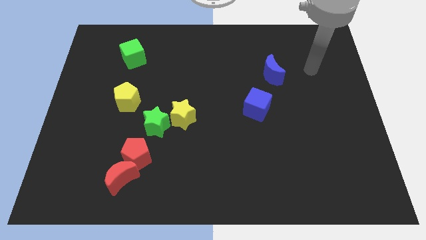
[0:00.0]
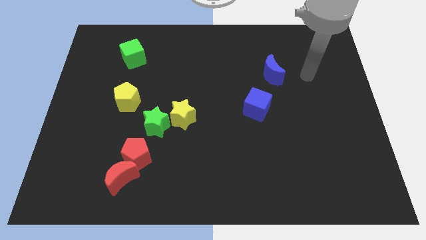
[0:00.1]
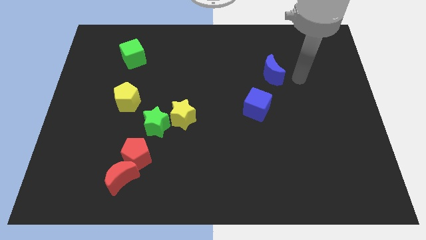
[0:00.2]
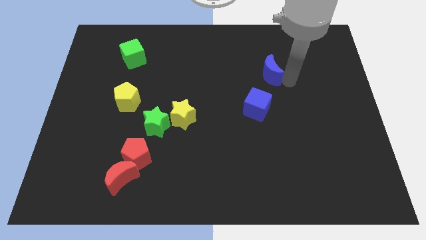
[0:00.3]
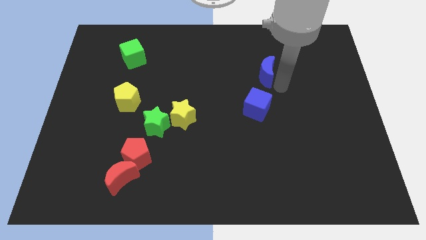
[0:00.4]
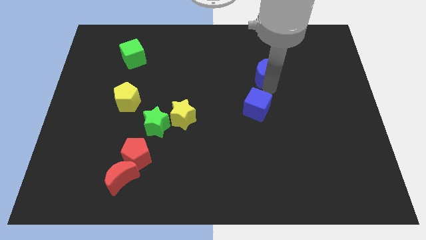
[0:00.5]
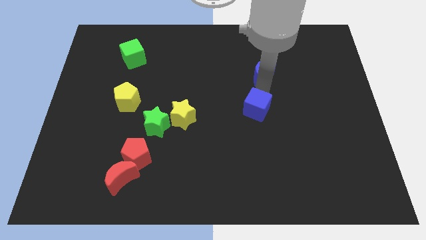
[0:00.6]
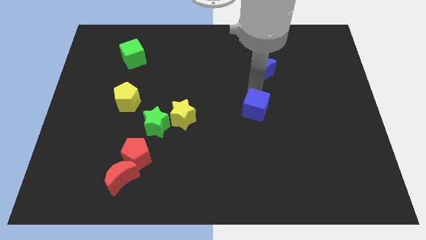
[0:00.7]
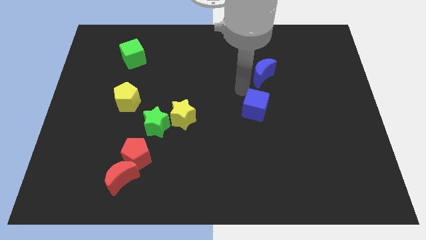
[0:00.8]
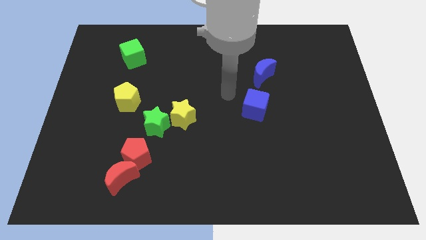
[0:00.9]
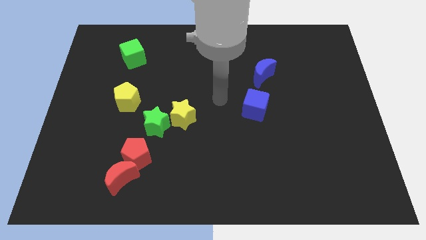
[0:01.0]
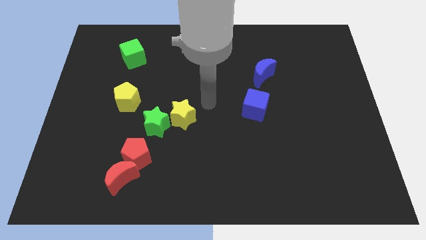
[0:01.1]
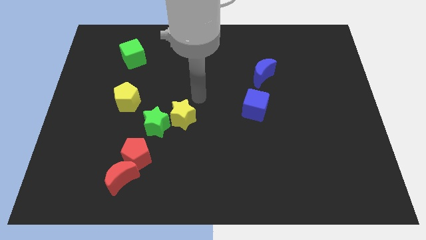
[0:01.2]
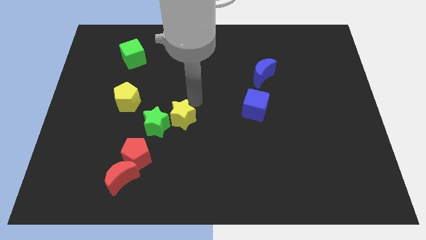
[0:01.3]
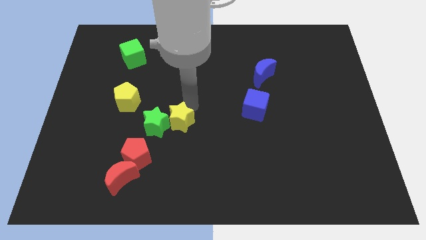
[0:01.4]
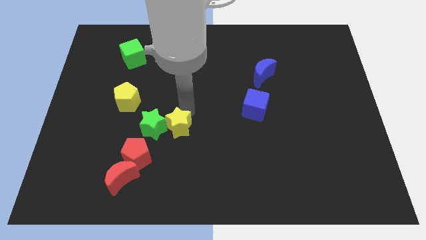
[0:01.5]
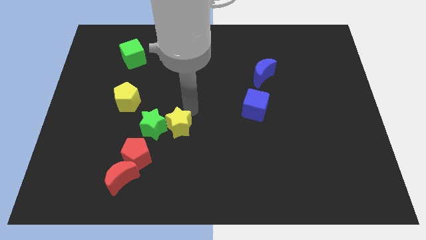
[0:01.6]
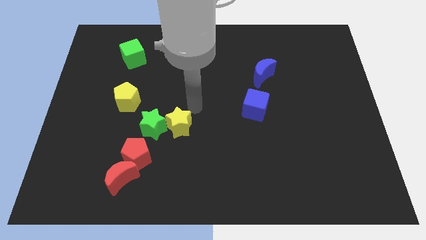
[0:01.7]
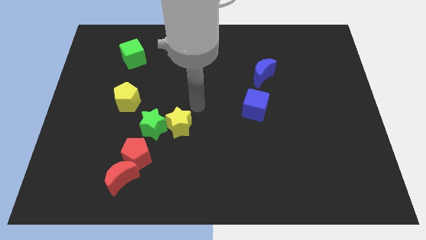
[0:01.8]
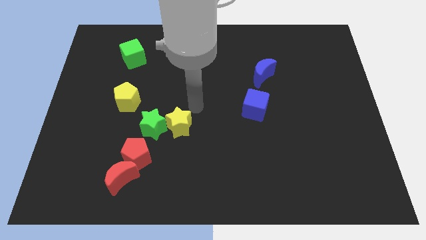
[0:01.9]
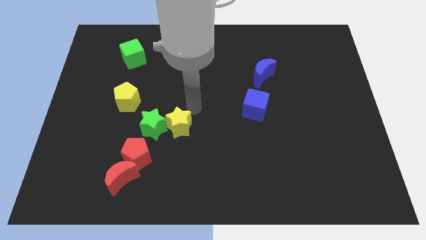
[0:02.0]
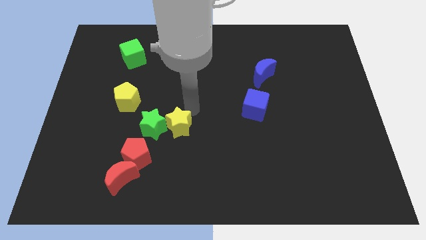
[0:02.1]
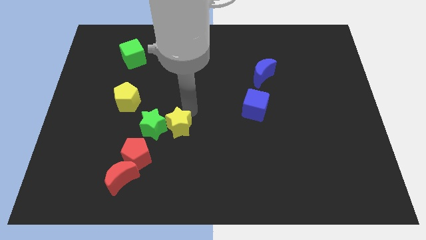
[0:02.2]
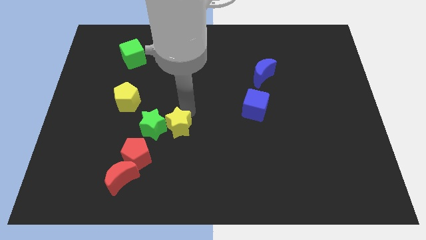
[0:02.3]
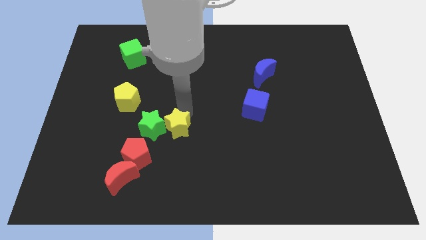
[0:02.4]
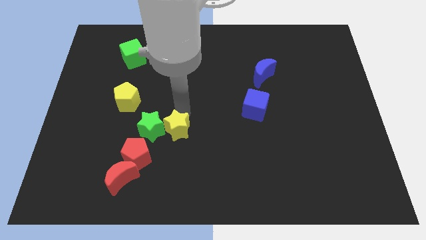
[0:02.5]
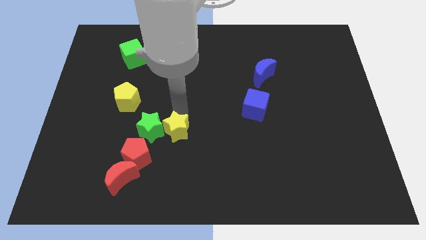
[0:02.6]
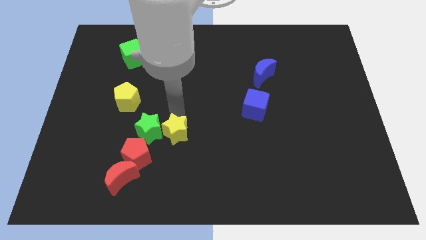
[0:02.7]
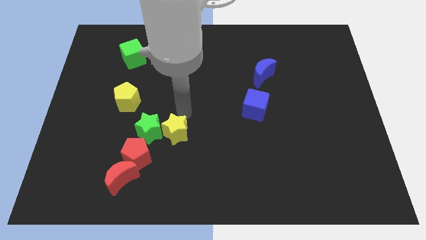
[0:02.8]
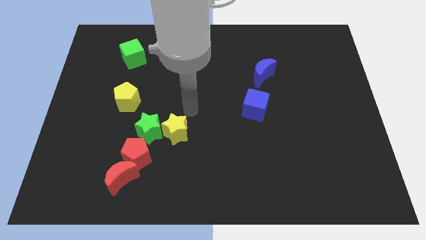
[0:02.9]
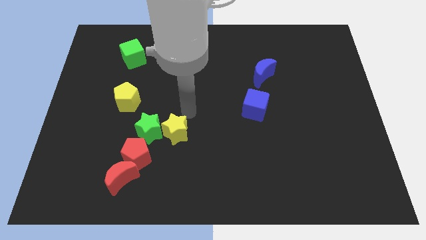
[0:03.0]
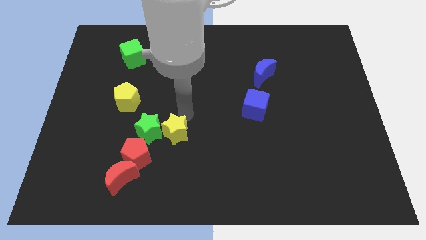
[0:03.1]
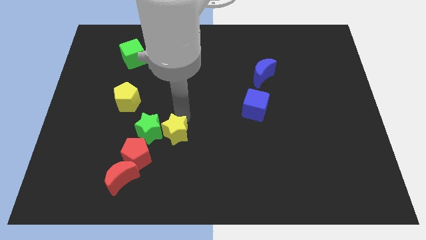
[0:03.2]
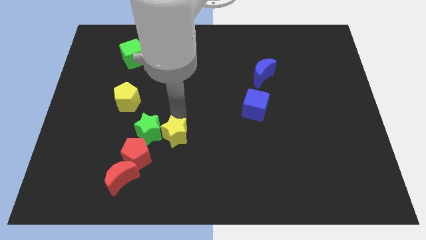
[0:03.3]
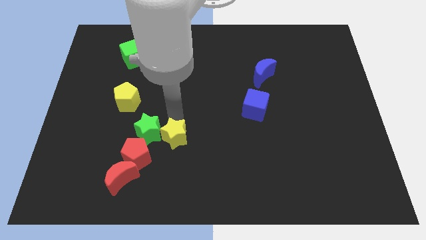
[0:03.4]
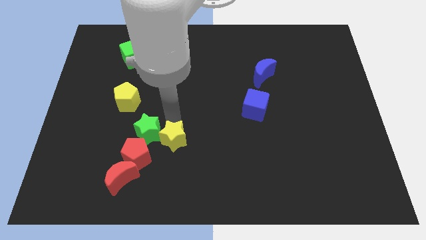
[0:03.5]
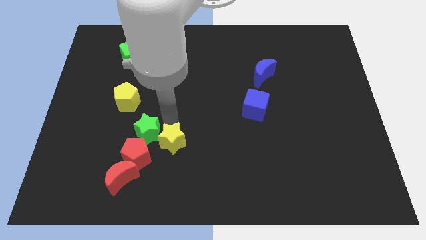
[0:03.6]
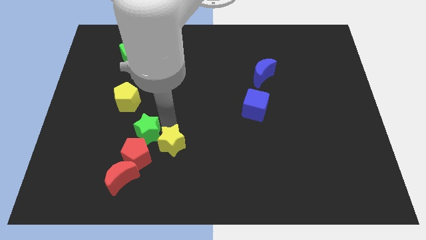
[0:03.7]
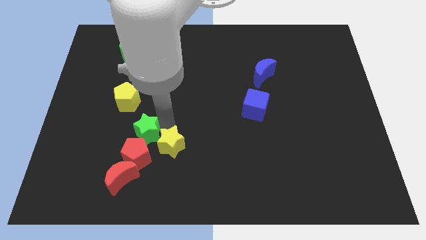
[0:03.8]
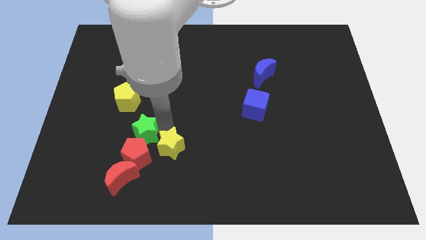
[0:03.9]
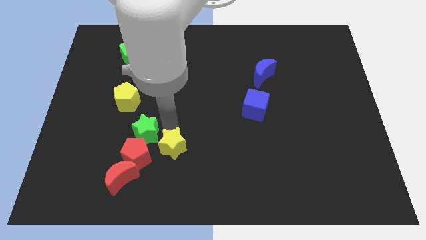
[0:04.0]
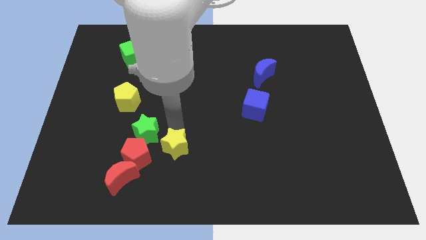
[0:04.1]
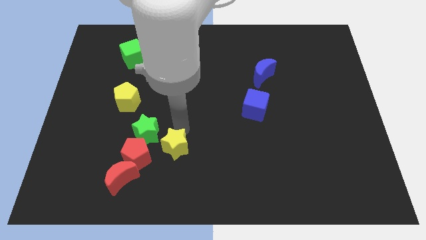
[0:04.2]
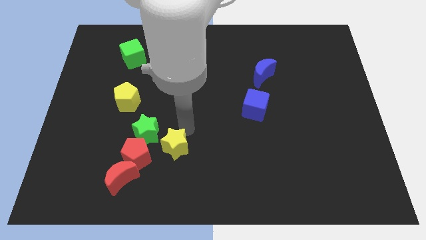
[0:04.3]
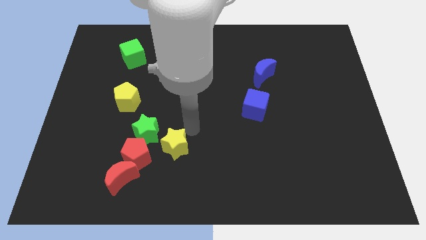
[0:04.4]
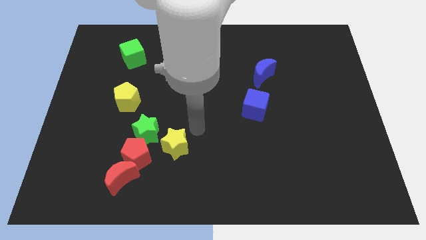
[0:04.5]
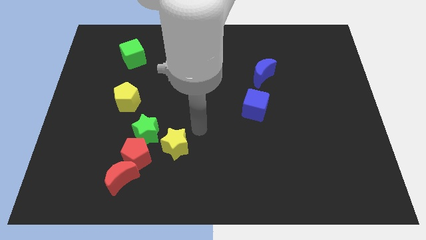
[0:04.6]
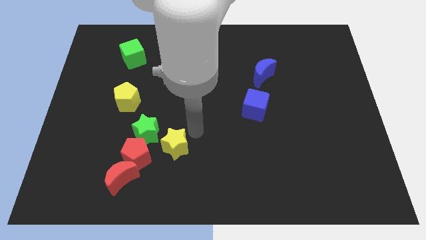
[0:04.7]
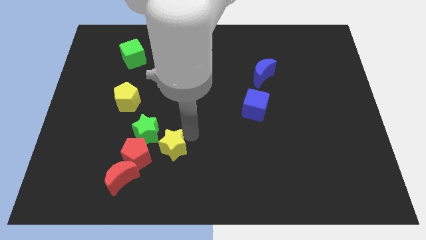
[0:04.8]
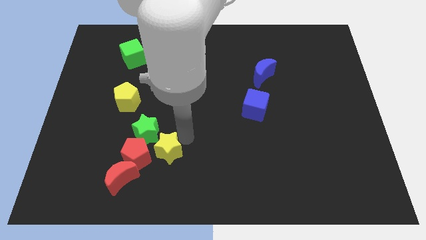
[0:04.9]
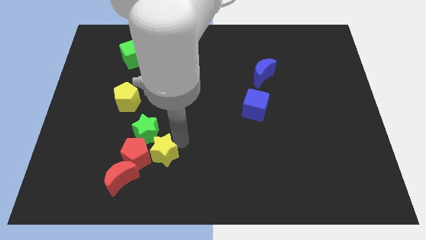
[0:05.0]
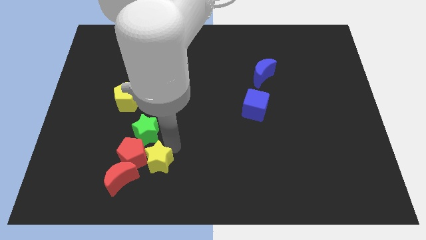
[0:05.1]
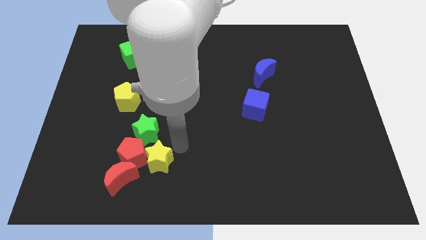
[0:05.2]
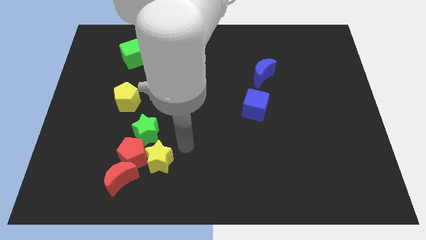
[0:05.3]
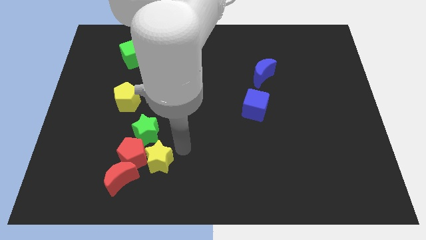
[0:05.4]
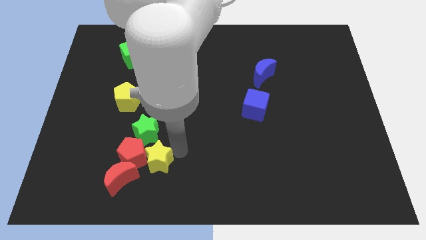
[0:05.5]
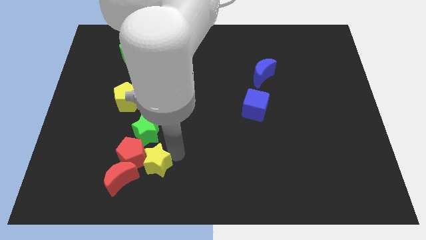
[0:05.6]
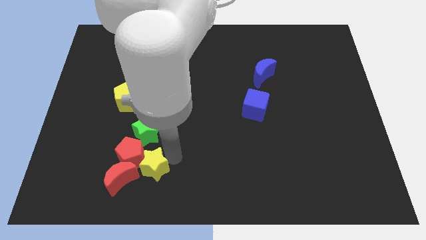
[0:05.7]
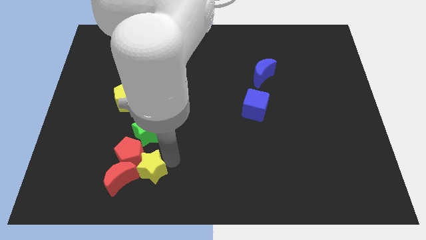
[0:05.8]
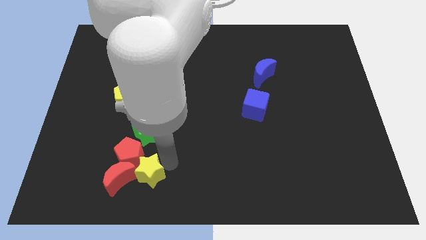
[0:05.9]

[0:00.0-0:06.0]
move the yellow star next to the red moon

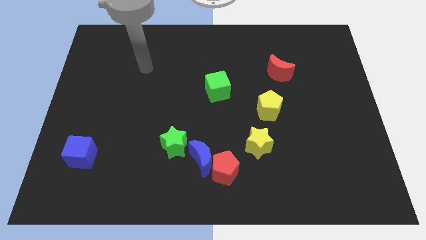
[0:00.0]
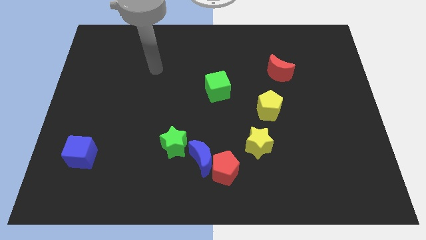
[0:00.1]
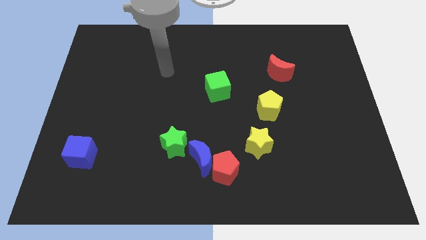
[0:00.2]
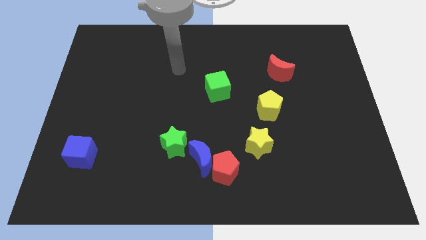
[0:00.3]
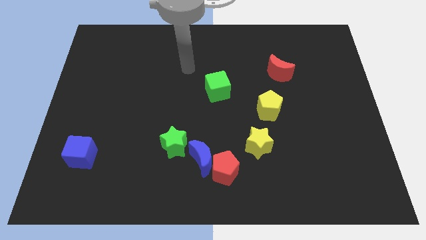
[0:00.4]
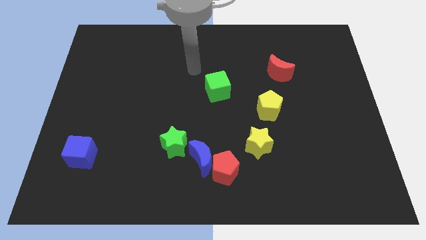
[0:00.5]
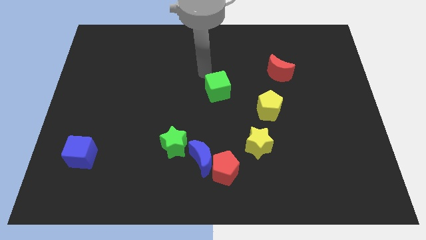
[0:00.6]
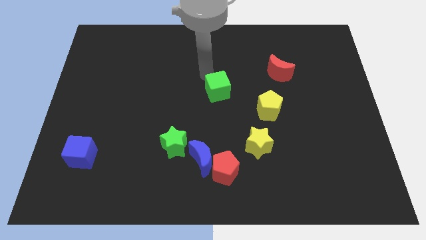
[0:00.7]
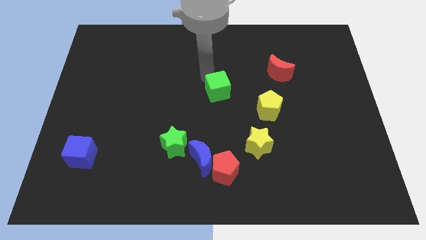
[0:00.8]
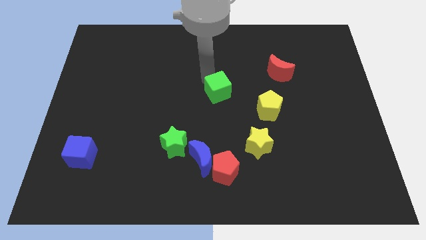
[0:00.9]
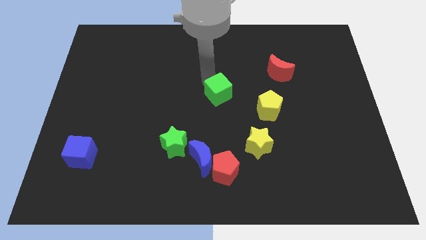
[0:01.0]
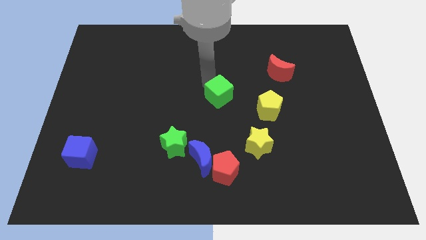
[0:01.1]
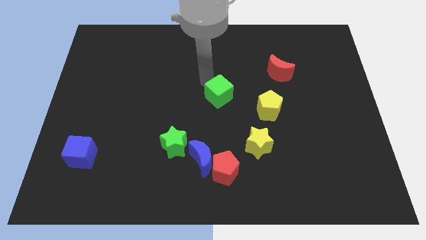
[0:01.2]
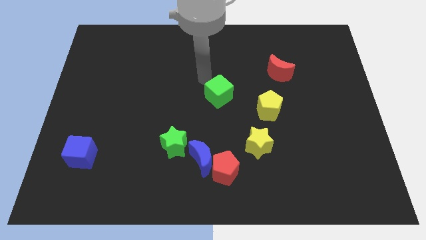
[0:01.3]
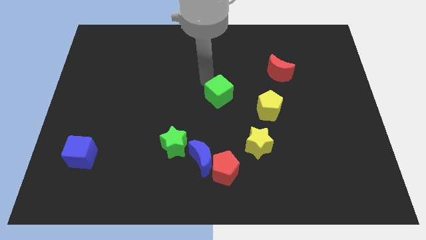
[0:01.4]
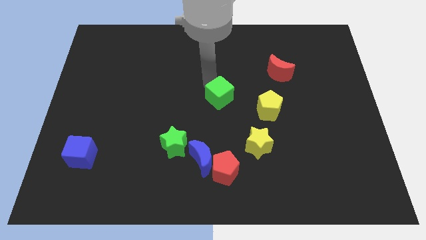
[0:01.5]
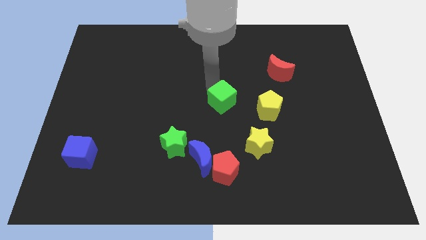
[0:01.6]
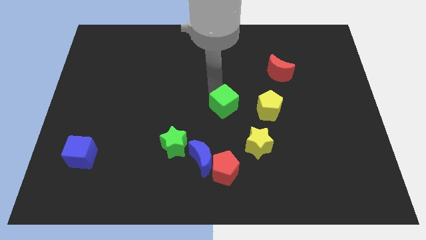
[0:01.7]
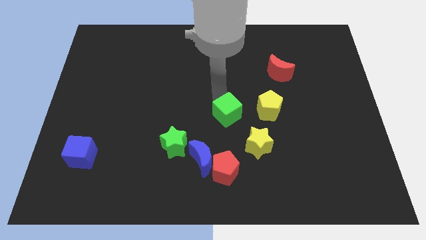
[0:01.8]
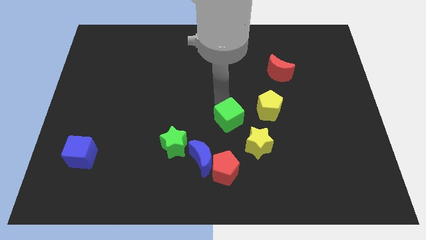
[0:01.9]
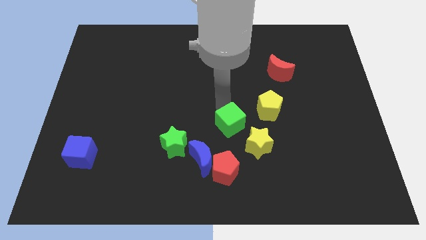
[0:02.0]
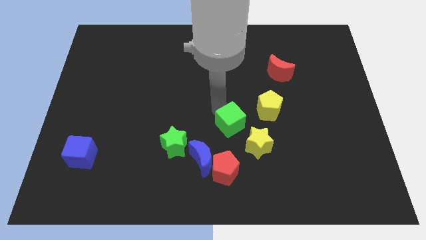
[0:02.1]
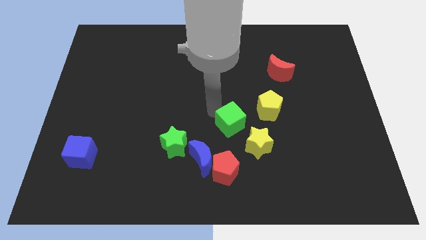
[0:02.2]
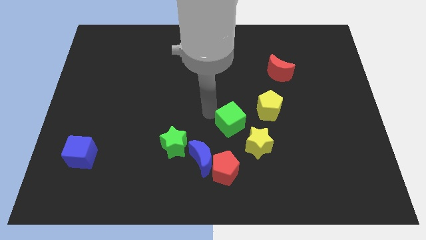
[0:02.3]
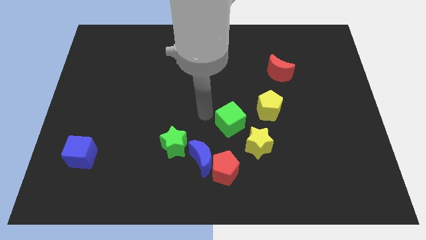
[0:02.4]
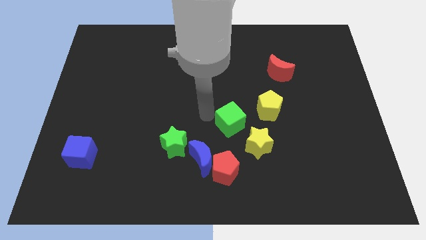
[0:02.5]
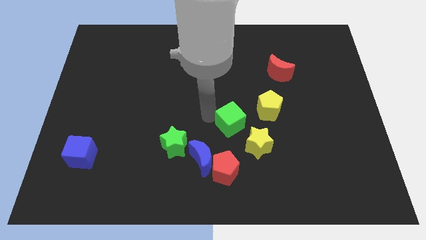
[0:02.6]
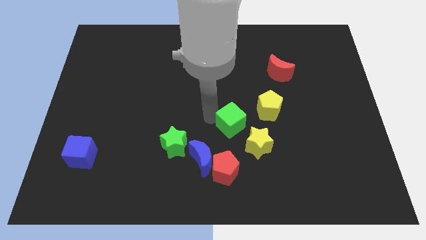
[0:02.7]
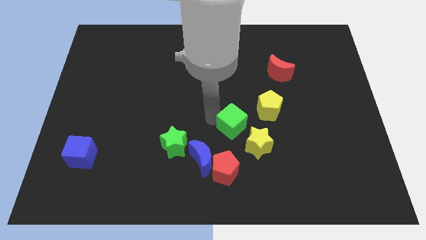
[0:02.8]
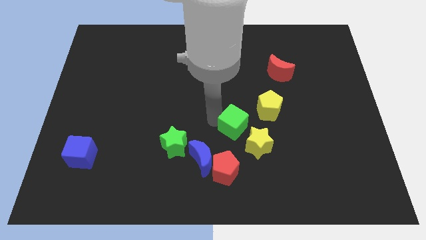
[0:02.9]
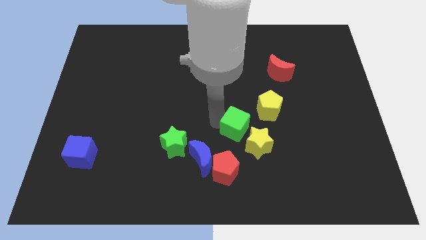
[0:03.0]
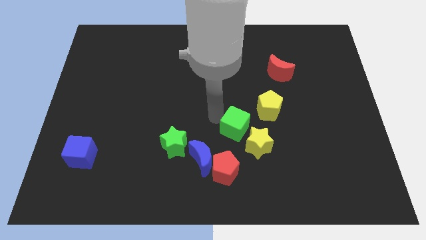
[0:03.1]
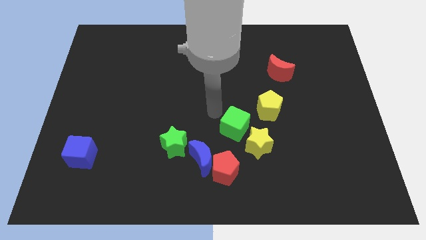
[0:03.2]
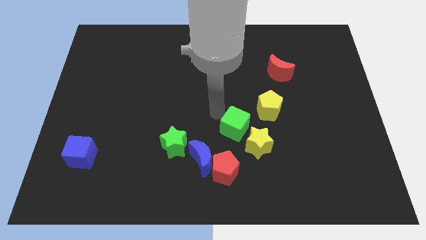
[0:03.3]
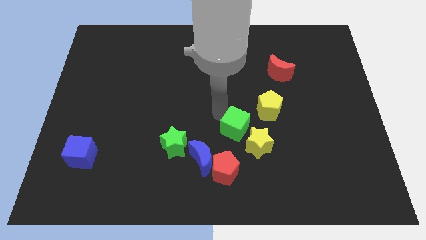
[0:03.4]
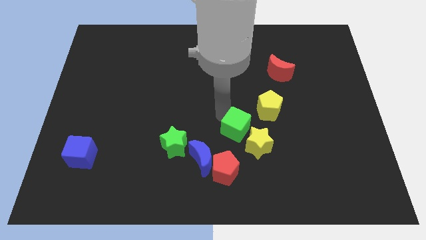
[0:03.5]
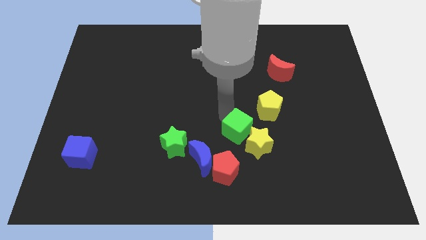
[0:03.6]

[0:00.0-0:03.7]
put the green cube next to the yellow star
